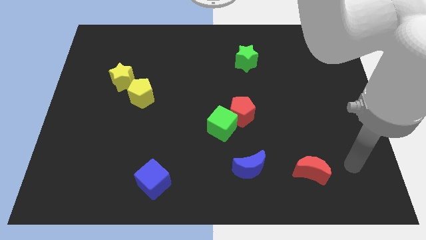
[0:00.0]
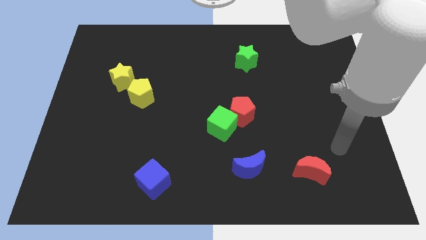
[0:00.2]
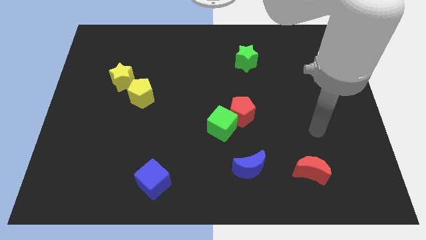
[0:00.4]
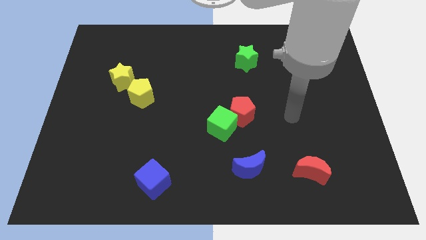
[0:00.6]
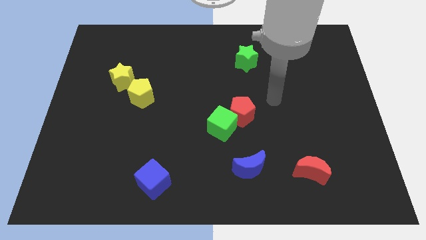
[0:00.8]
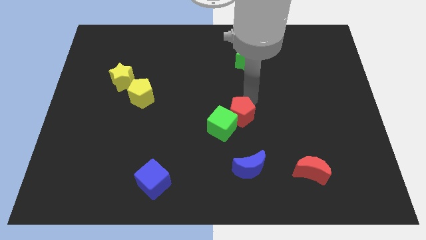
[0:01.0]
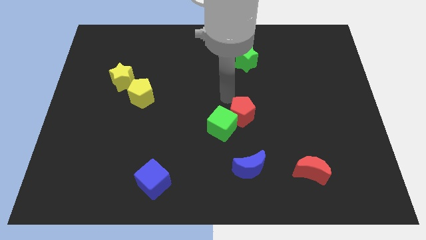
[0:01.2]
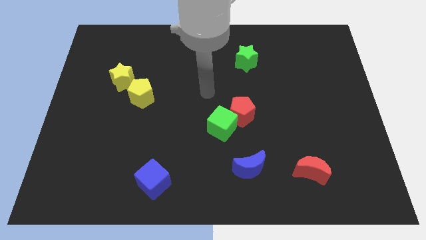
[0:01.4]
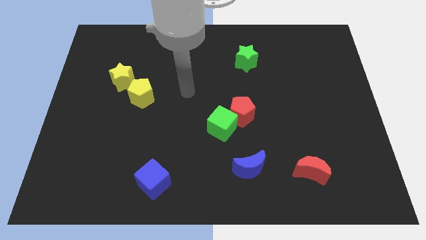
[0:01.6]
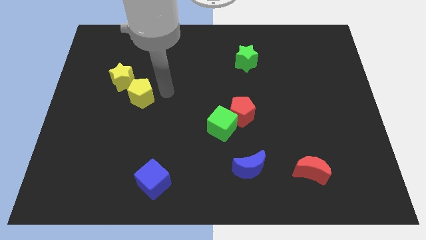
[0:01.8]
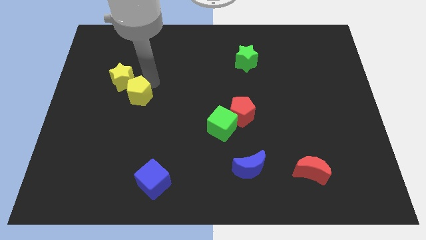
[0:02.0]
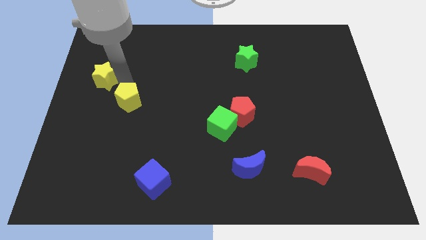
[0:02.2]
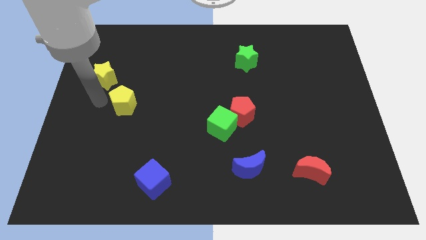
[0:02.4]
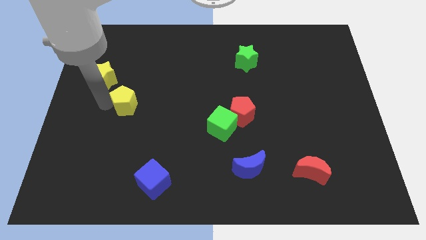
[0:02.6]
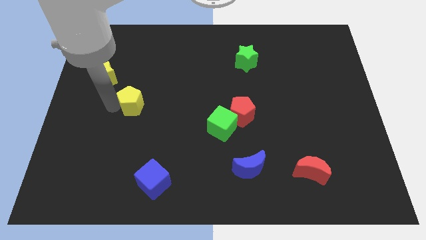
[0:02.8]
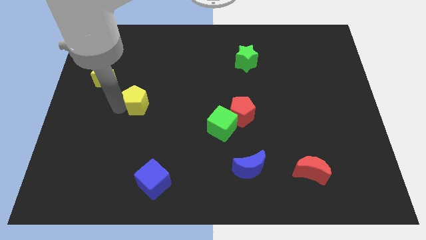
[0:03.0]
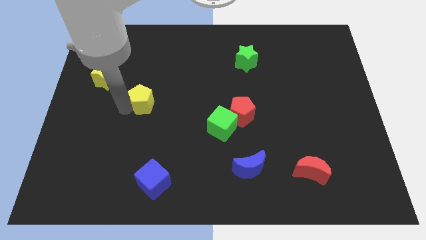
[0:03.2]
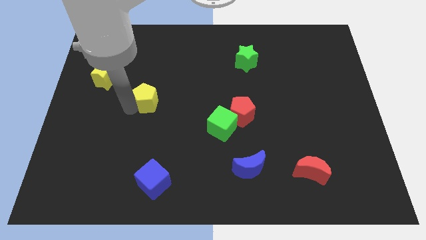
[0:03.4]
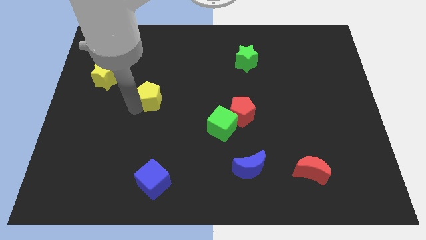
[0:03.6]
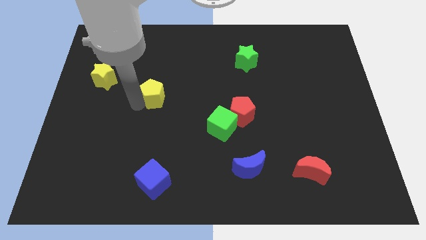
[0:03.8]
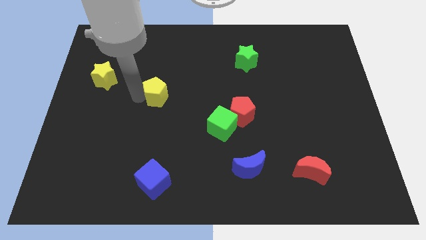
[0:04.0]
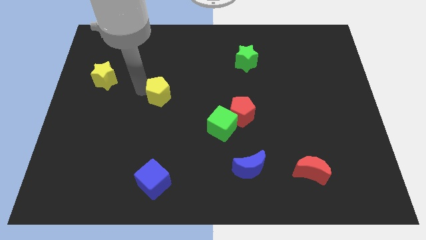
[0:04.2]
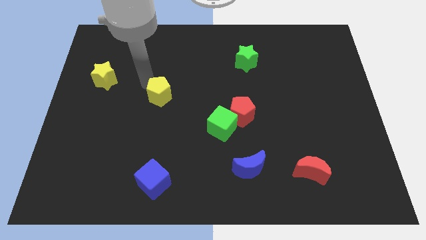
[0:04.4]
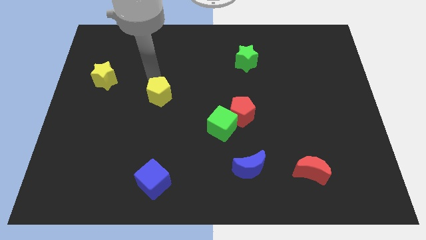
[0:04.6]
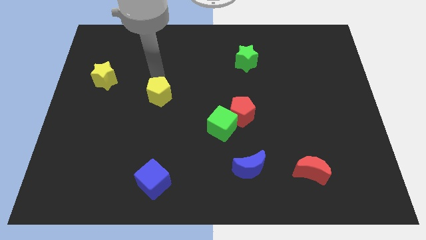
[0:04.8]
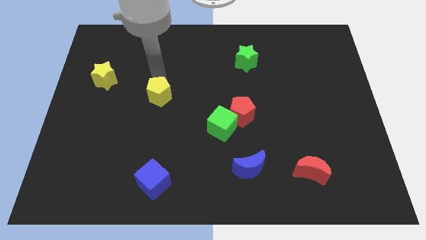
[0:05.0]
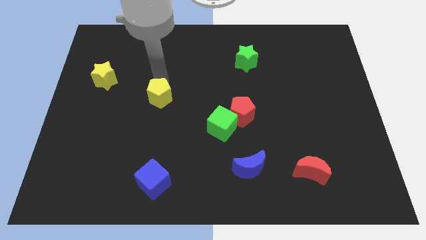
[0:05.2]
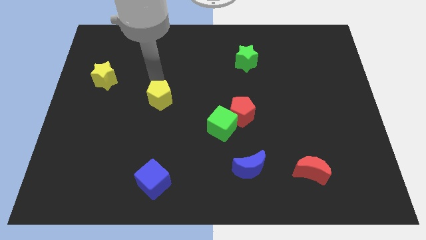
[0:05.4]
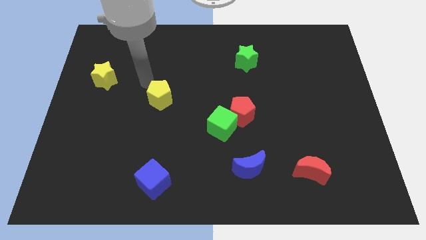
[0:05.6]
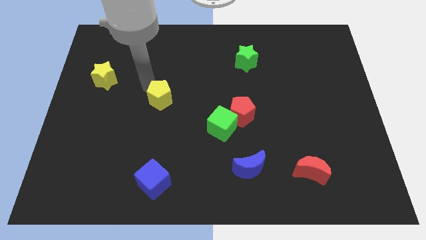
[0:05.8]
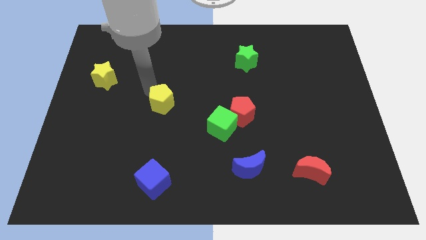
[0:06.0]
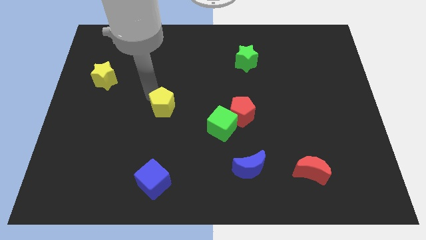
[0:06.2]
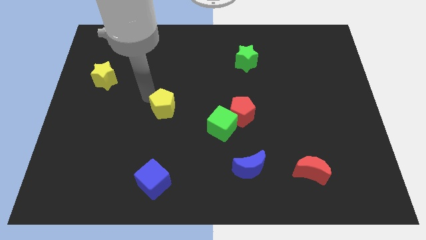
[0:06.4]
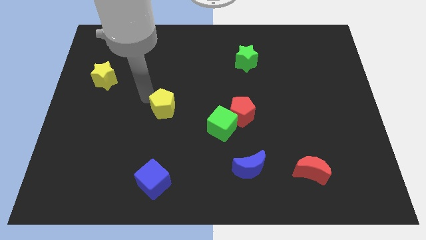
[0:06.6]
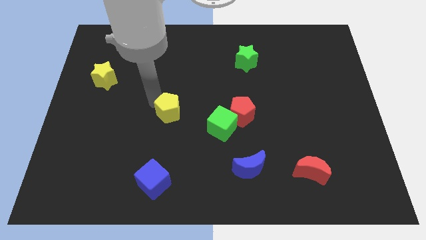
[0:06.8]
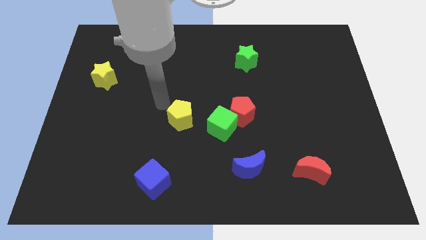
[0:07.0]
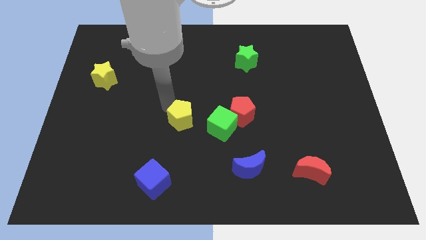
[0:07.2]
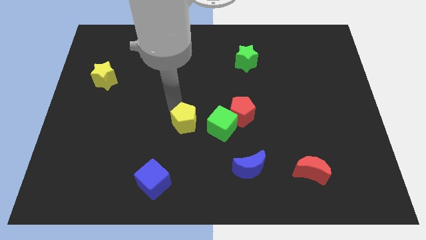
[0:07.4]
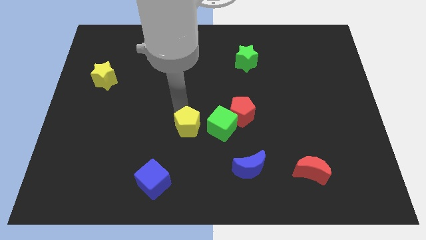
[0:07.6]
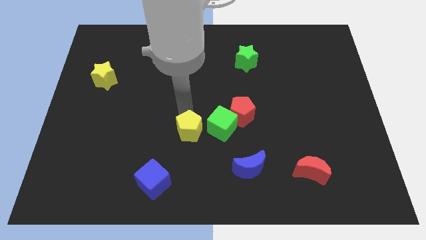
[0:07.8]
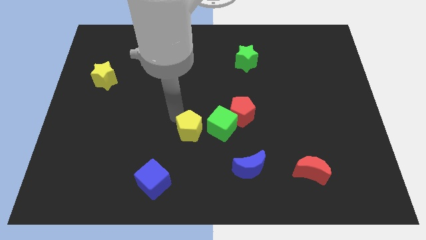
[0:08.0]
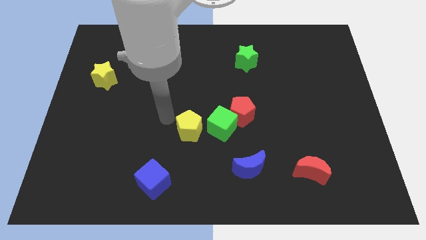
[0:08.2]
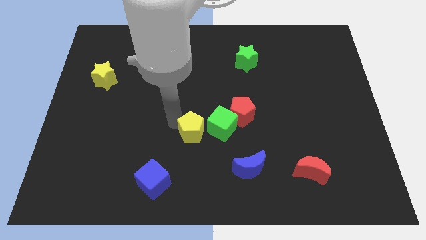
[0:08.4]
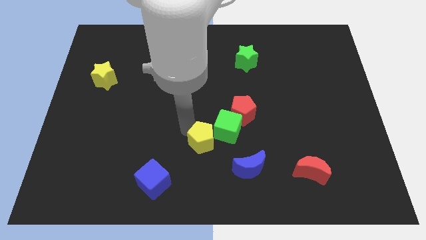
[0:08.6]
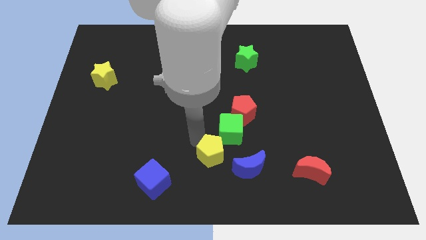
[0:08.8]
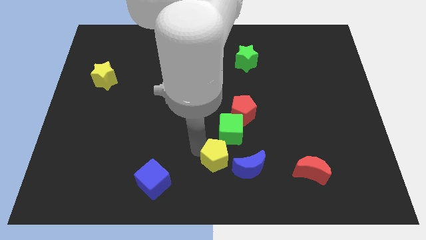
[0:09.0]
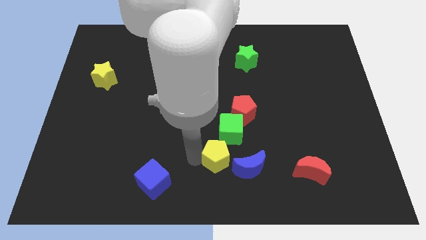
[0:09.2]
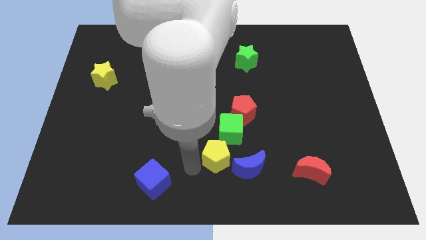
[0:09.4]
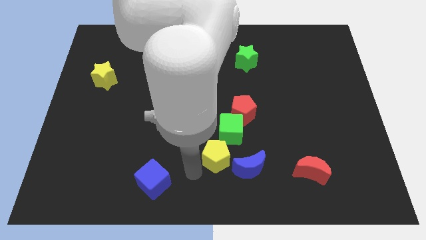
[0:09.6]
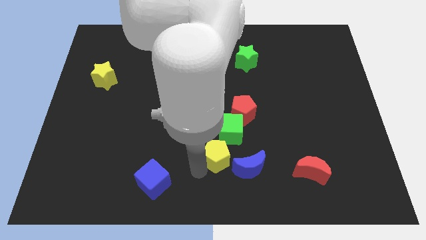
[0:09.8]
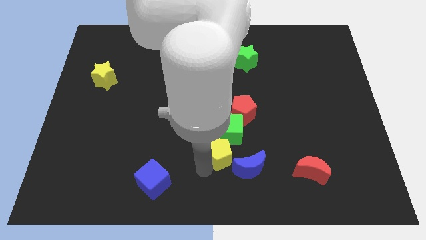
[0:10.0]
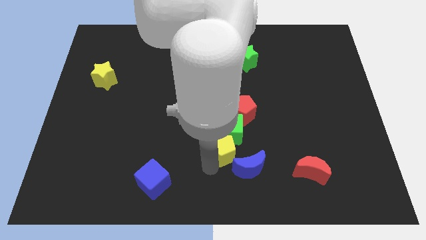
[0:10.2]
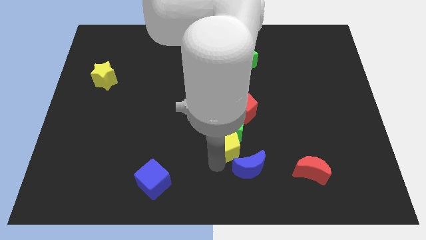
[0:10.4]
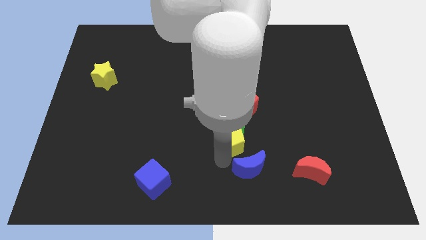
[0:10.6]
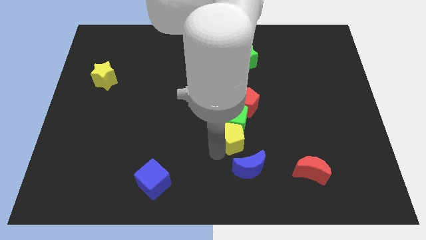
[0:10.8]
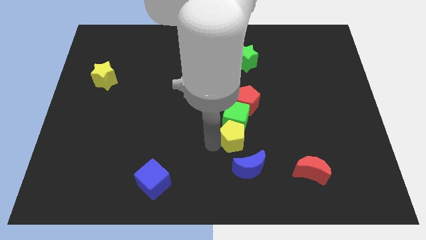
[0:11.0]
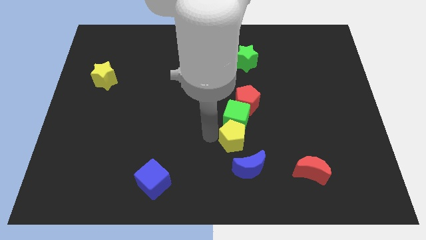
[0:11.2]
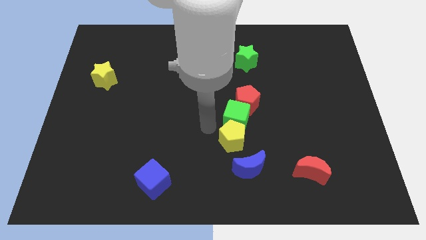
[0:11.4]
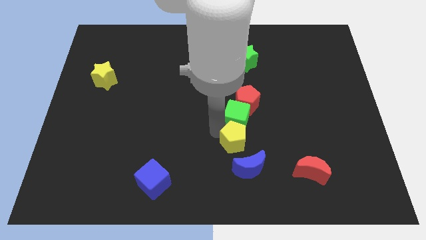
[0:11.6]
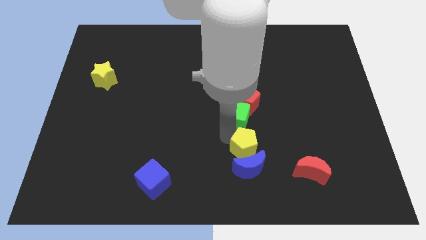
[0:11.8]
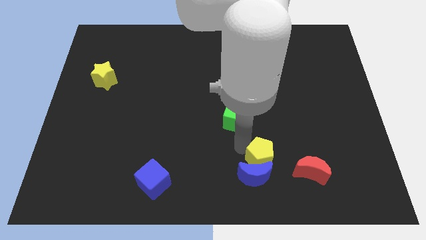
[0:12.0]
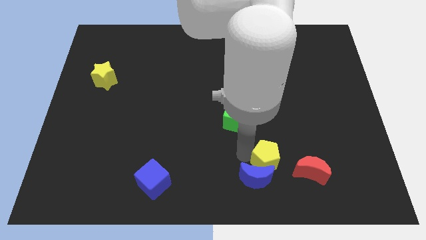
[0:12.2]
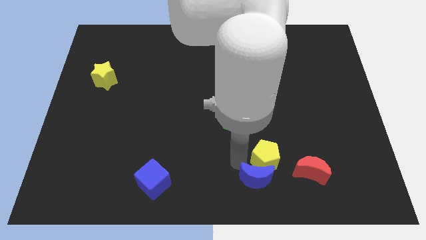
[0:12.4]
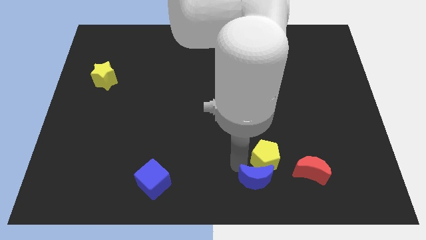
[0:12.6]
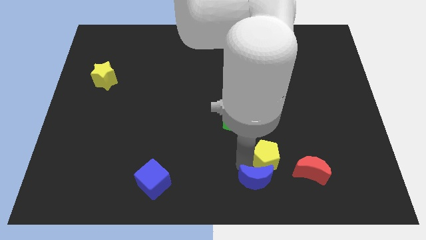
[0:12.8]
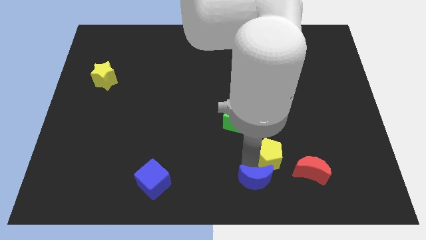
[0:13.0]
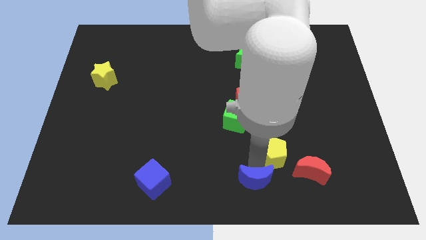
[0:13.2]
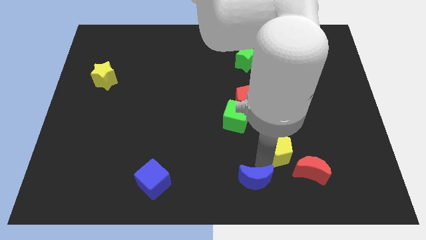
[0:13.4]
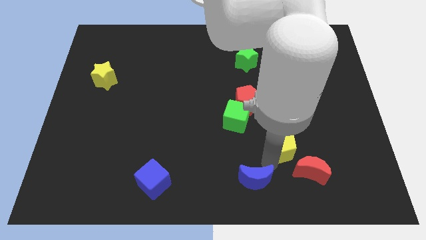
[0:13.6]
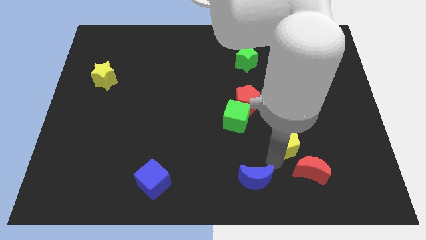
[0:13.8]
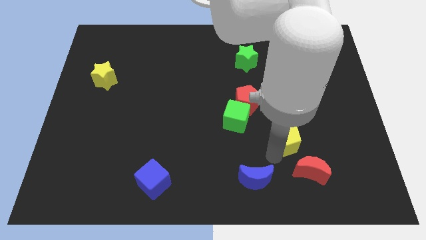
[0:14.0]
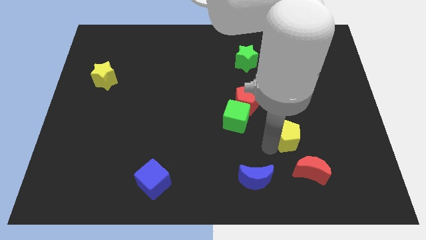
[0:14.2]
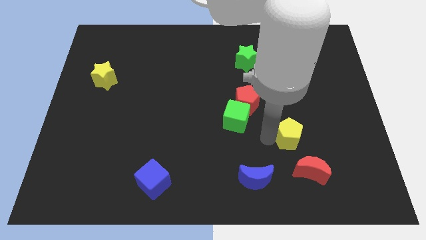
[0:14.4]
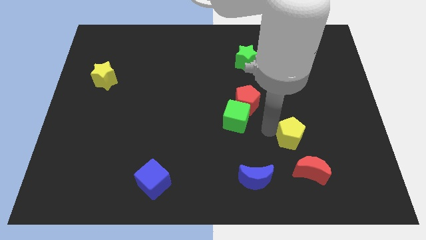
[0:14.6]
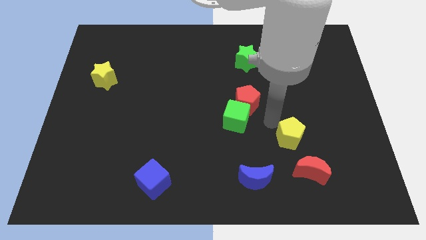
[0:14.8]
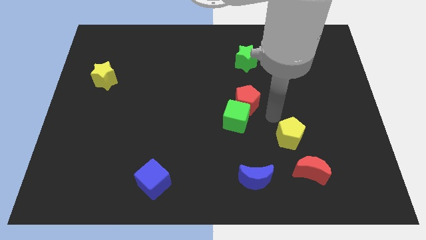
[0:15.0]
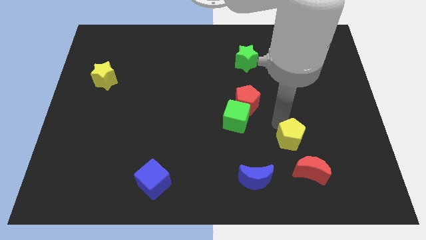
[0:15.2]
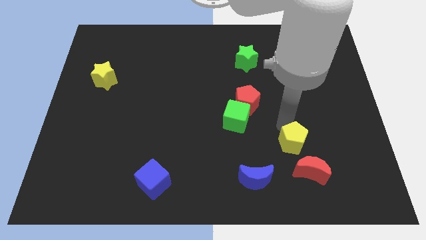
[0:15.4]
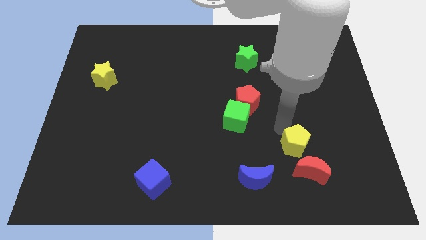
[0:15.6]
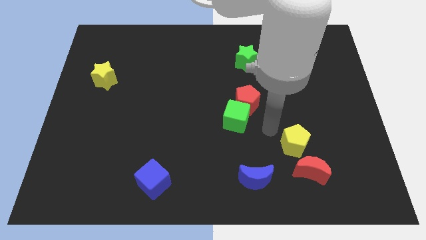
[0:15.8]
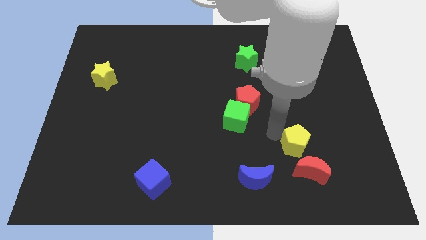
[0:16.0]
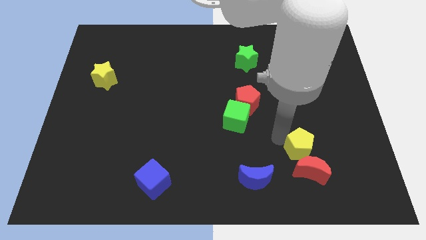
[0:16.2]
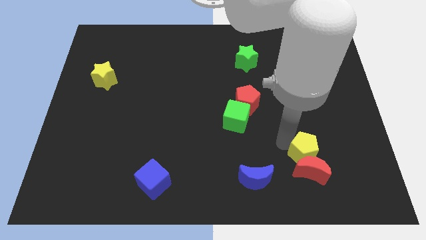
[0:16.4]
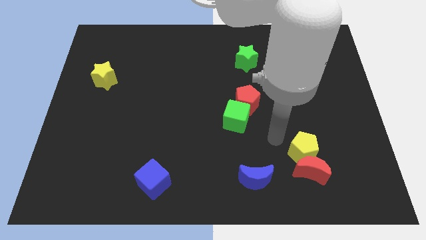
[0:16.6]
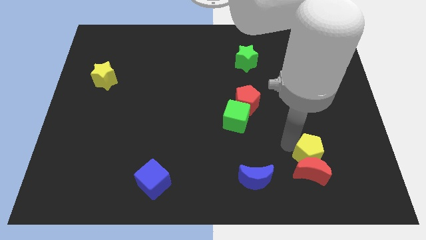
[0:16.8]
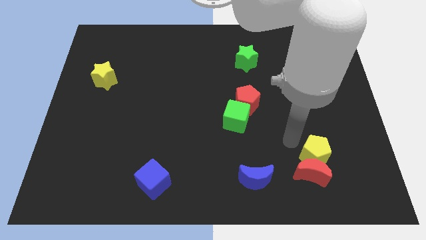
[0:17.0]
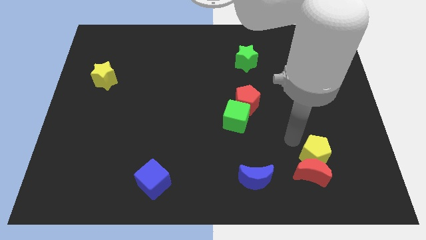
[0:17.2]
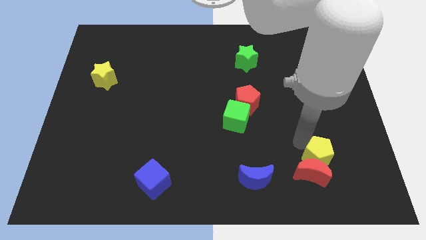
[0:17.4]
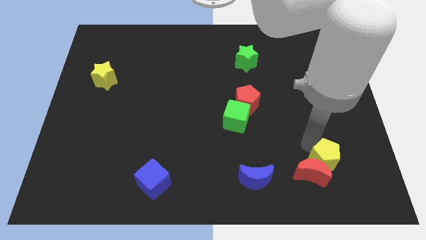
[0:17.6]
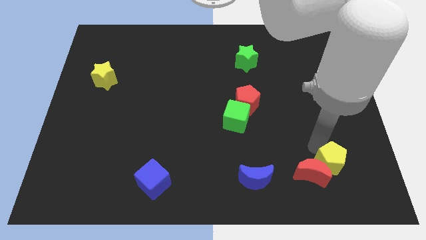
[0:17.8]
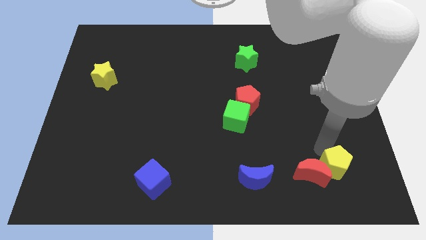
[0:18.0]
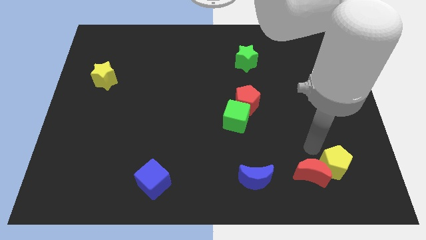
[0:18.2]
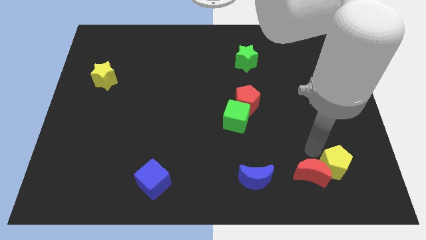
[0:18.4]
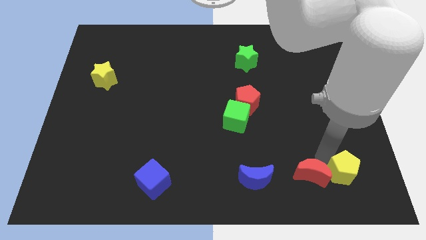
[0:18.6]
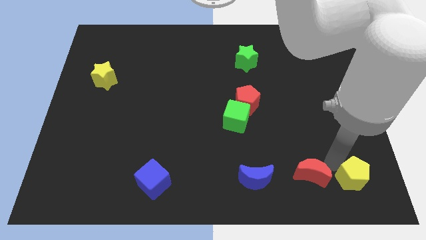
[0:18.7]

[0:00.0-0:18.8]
push the yellow pentagon to the bottom right of the board
